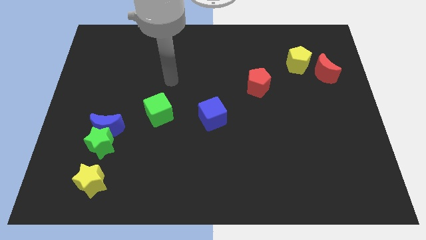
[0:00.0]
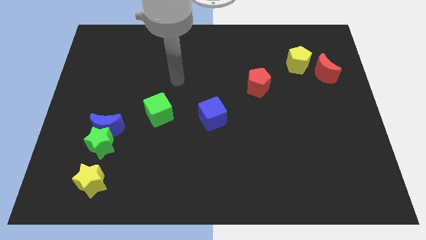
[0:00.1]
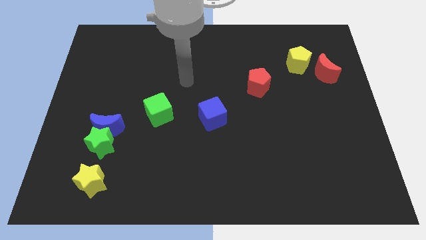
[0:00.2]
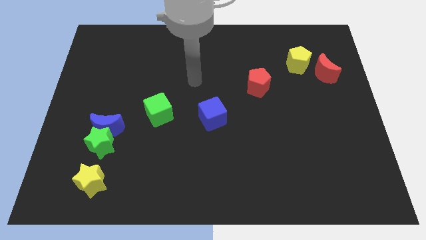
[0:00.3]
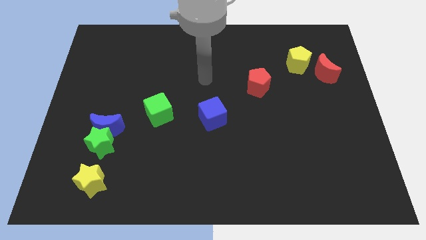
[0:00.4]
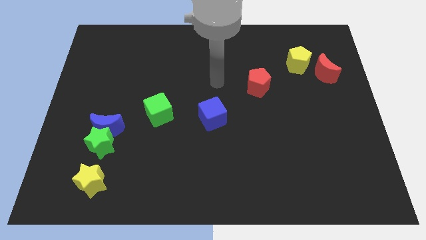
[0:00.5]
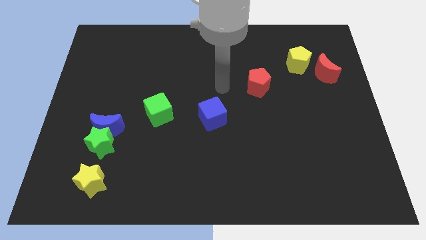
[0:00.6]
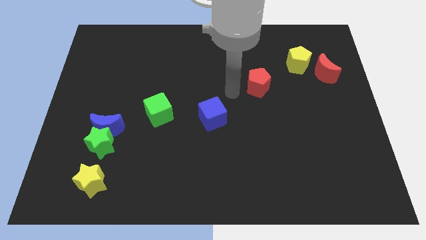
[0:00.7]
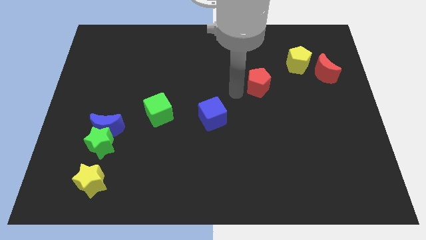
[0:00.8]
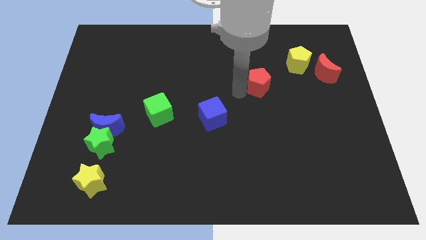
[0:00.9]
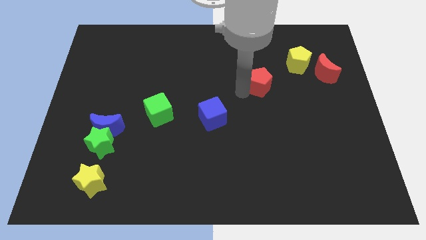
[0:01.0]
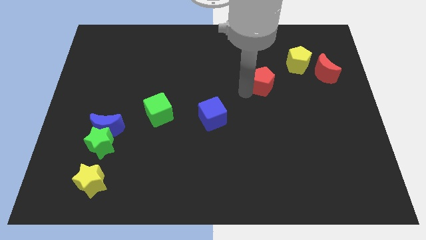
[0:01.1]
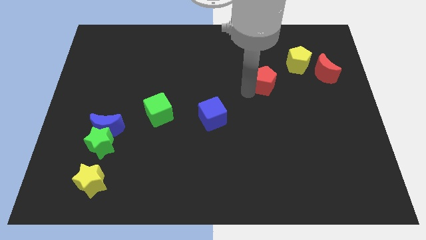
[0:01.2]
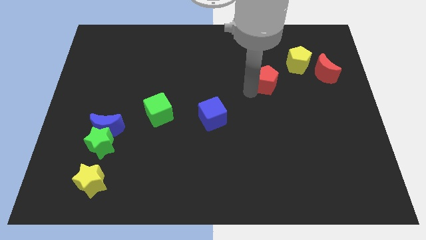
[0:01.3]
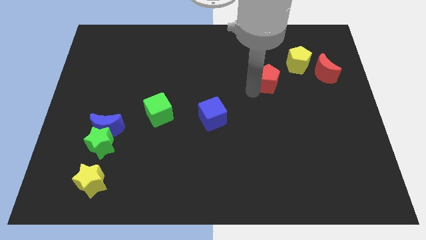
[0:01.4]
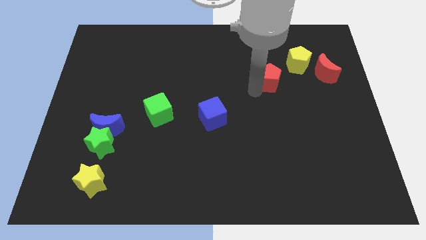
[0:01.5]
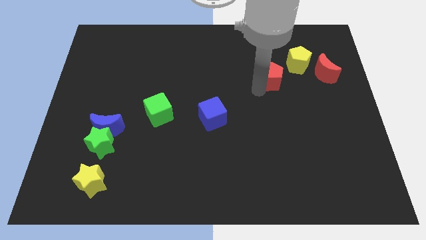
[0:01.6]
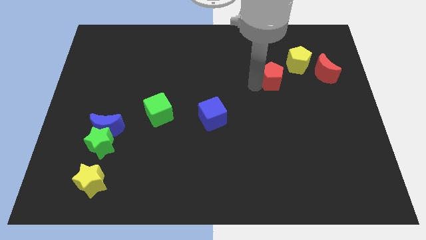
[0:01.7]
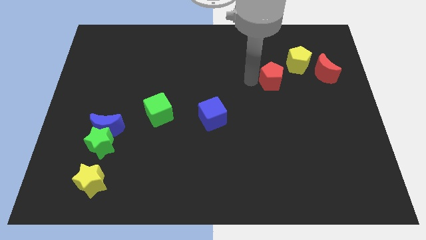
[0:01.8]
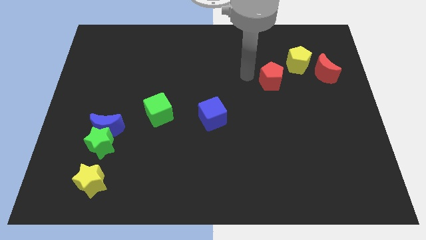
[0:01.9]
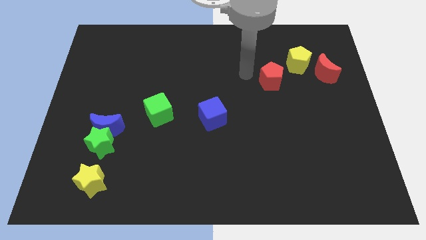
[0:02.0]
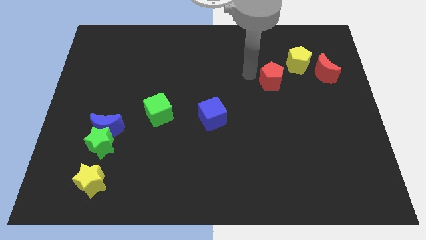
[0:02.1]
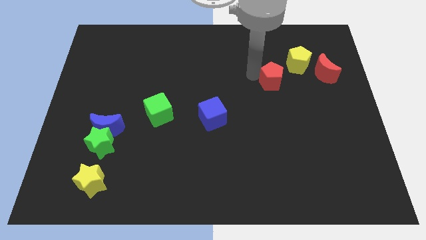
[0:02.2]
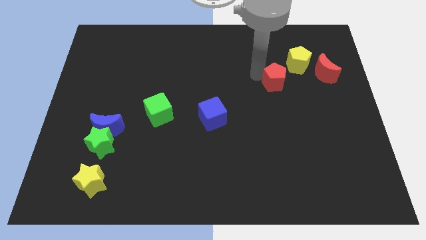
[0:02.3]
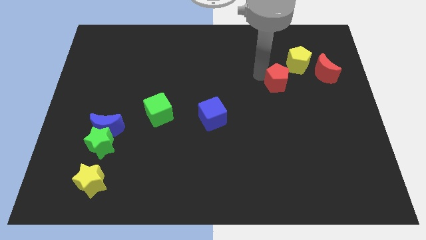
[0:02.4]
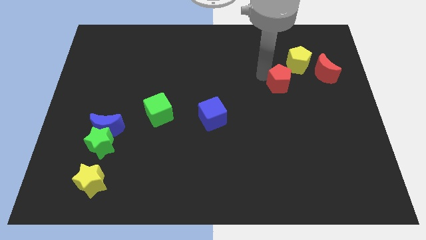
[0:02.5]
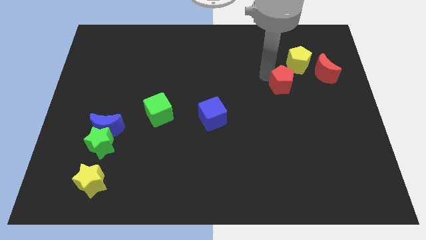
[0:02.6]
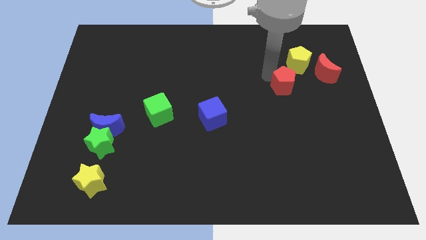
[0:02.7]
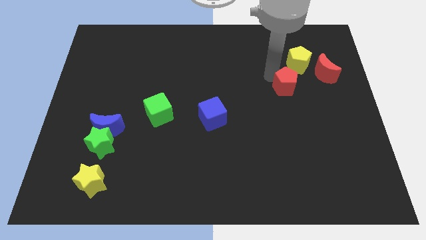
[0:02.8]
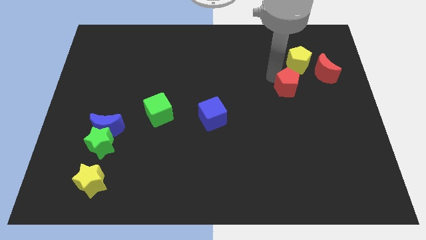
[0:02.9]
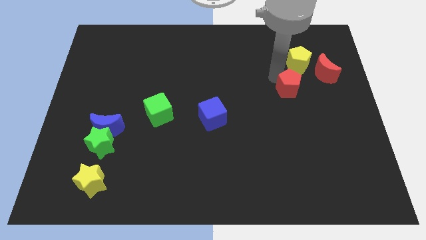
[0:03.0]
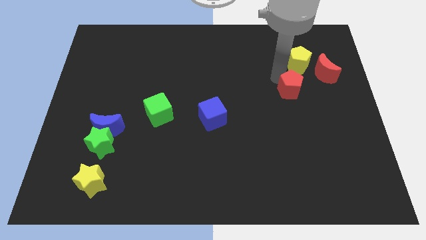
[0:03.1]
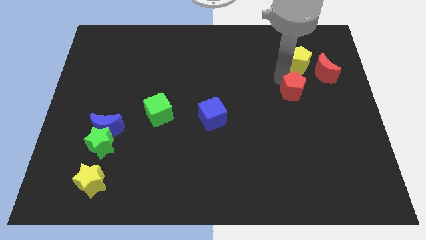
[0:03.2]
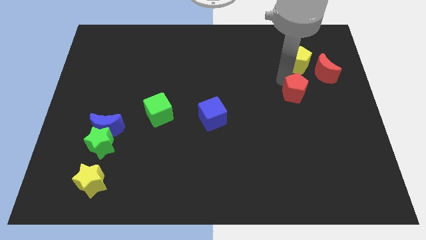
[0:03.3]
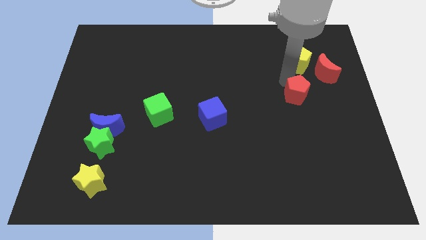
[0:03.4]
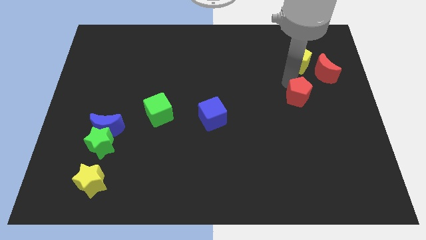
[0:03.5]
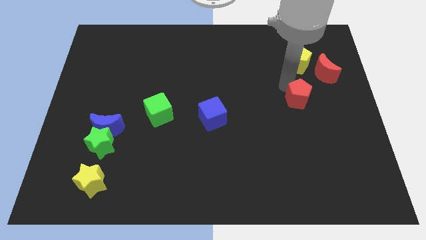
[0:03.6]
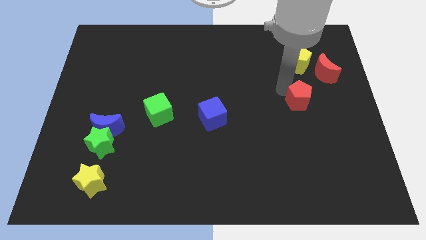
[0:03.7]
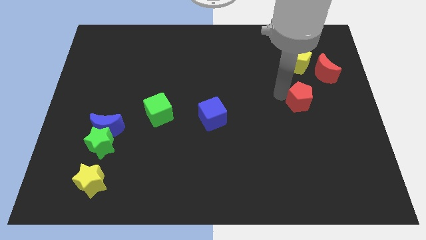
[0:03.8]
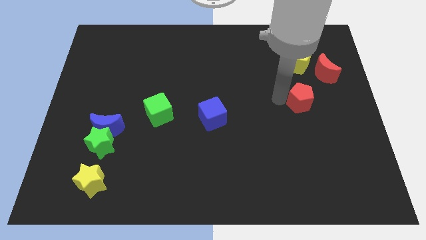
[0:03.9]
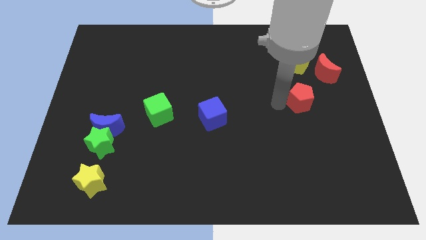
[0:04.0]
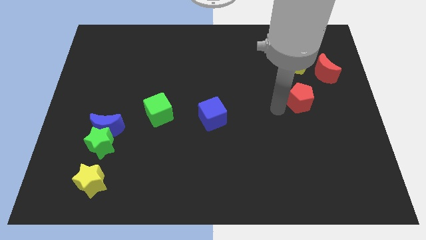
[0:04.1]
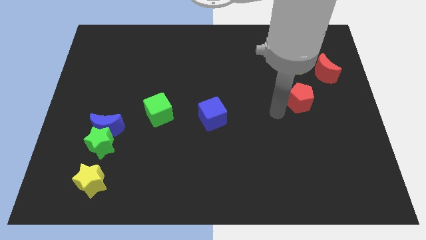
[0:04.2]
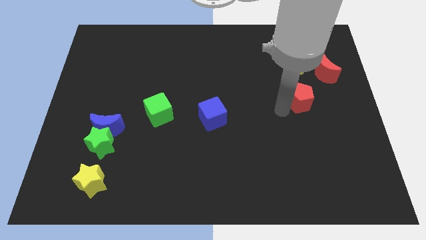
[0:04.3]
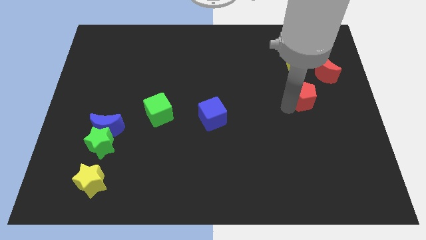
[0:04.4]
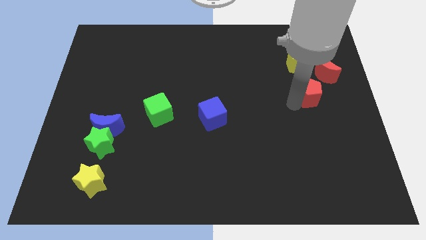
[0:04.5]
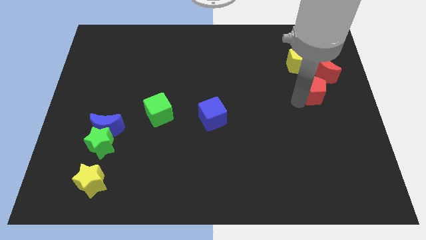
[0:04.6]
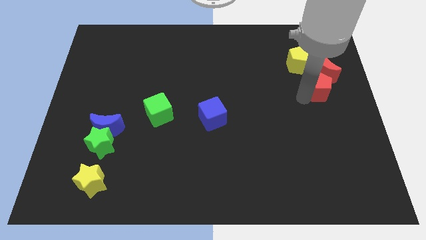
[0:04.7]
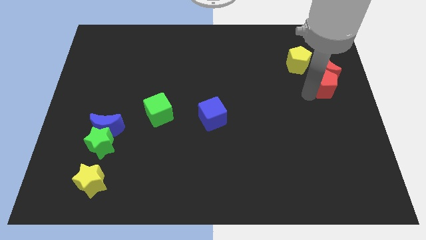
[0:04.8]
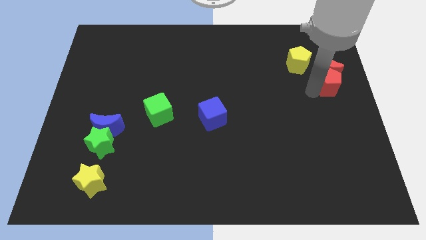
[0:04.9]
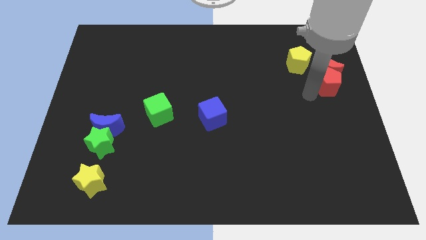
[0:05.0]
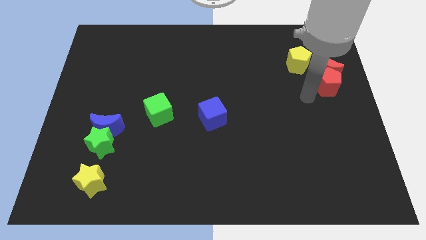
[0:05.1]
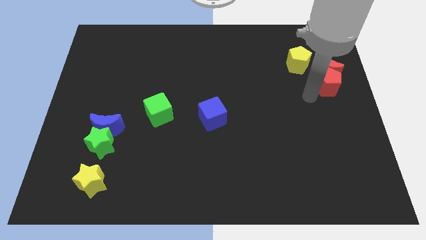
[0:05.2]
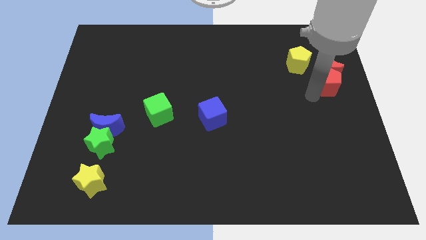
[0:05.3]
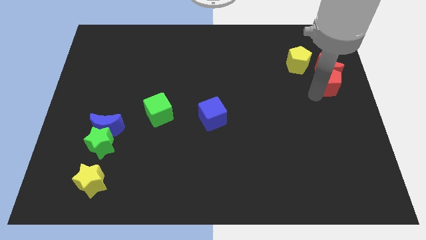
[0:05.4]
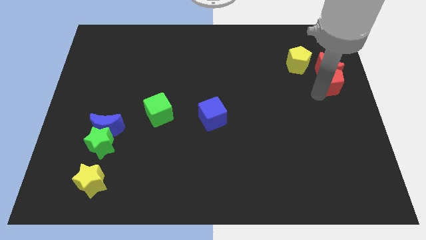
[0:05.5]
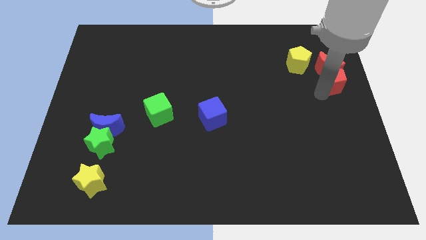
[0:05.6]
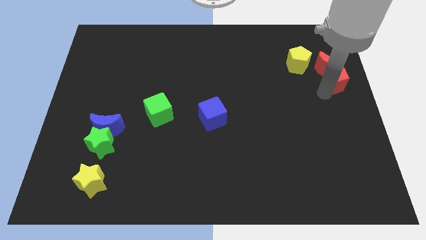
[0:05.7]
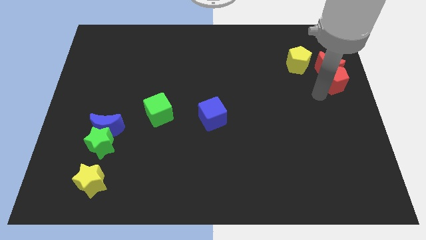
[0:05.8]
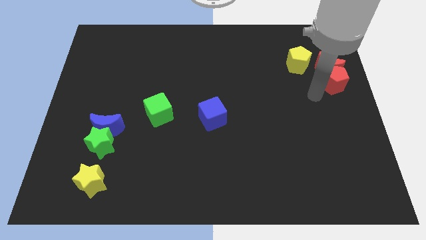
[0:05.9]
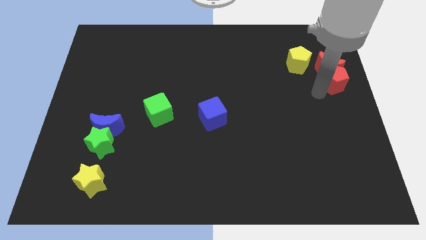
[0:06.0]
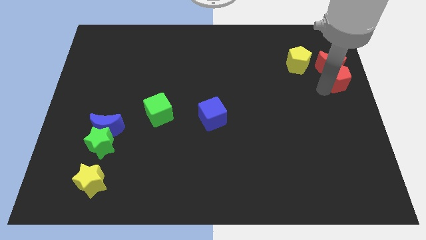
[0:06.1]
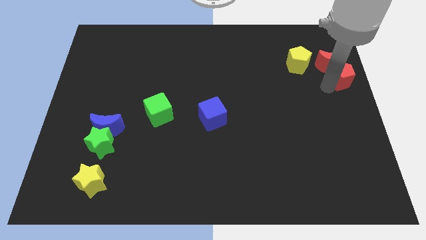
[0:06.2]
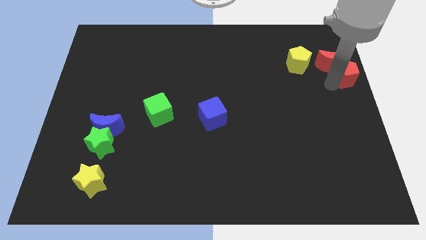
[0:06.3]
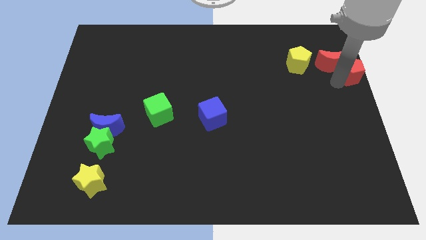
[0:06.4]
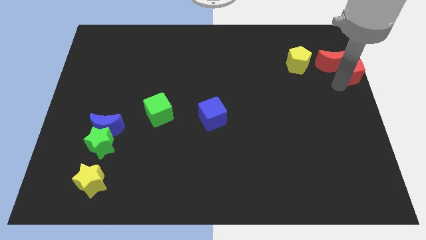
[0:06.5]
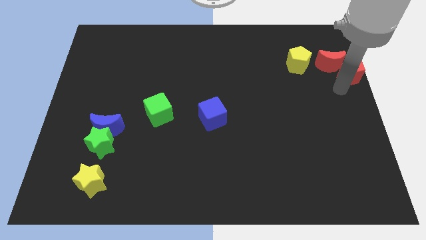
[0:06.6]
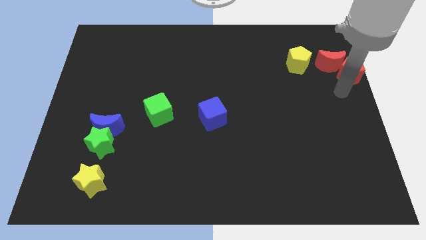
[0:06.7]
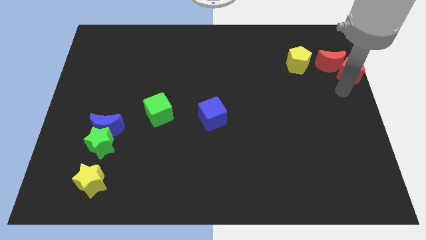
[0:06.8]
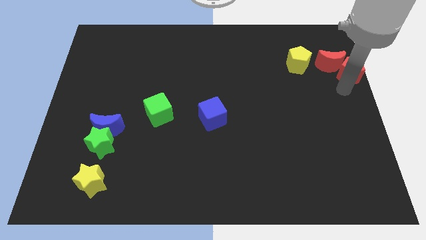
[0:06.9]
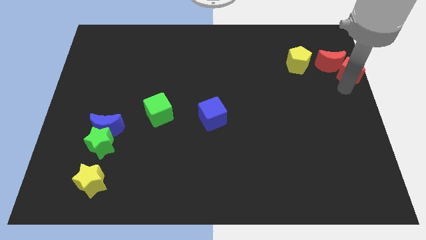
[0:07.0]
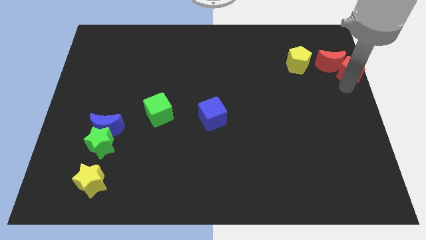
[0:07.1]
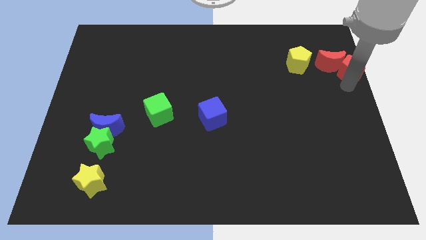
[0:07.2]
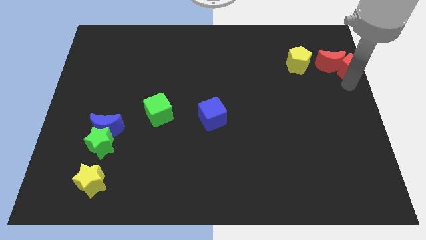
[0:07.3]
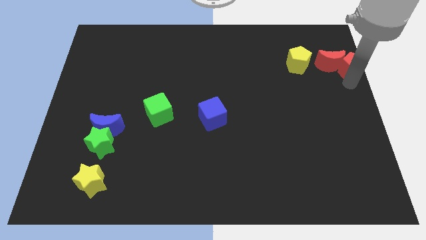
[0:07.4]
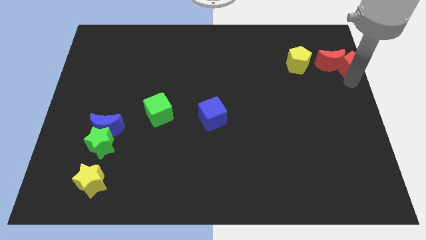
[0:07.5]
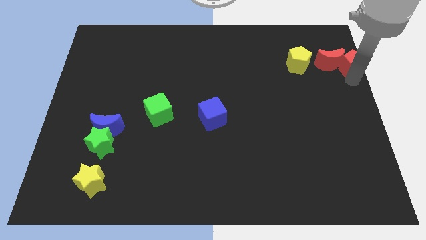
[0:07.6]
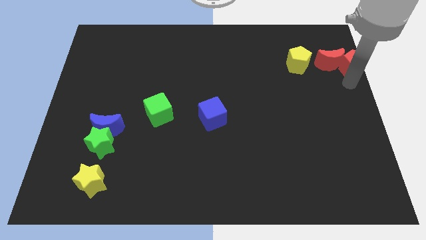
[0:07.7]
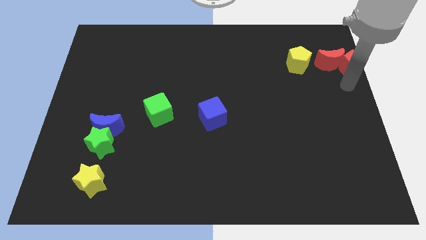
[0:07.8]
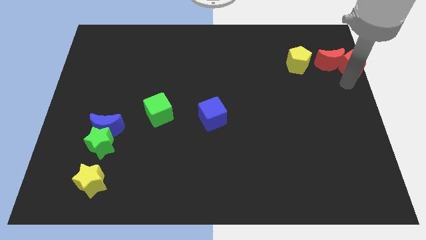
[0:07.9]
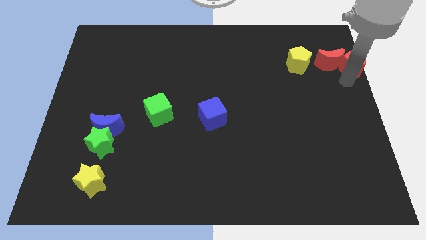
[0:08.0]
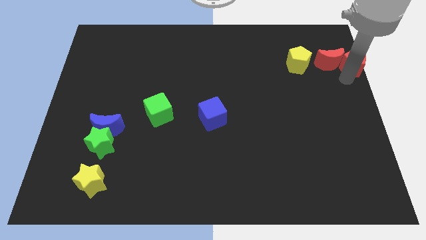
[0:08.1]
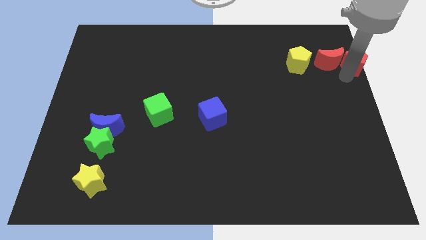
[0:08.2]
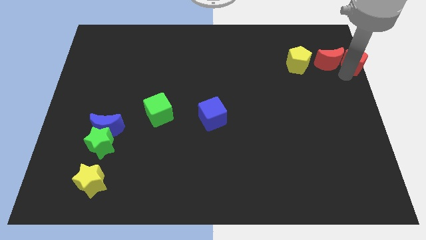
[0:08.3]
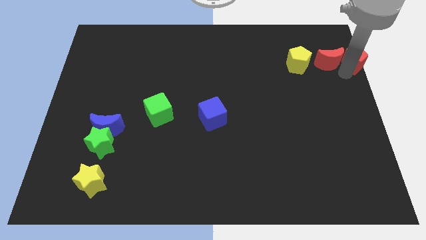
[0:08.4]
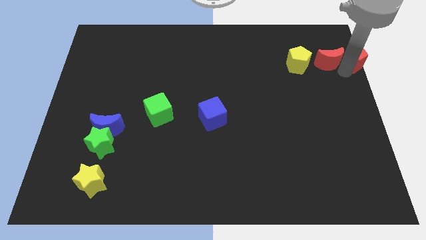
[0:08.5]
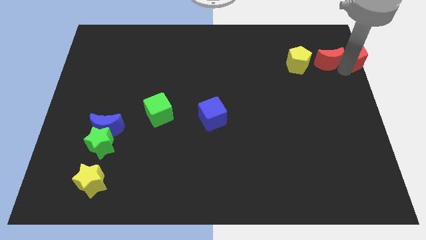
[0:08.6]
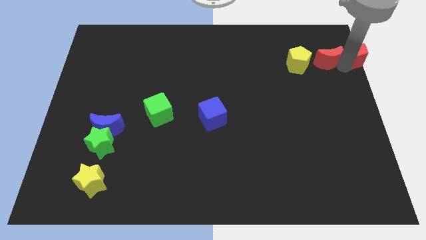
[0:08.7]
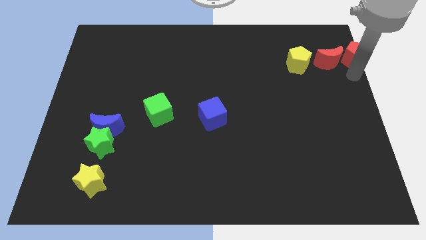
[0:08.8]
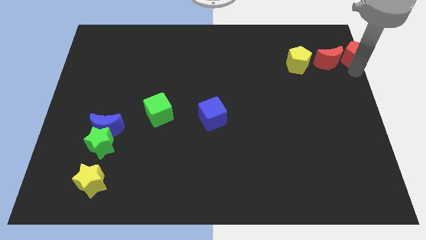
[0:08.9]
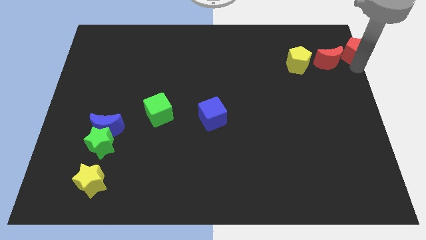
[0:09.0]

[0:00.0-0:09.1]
slide the red pentagon to the upper right corner
